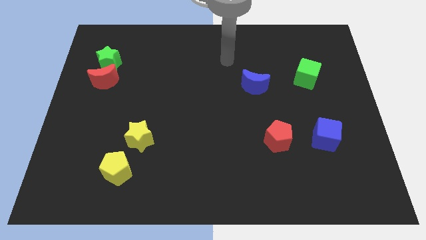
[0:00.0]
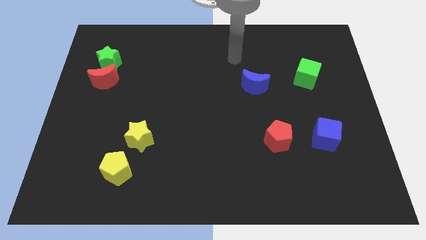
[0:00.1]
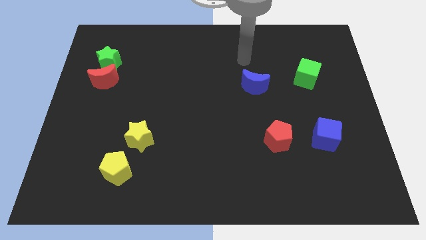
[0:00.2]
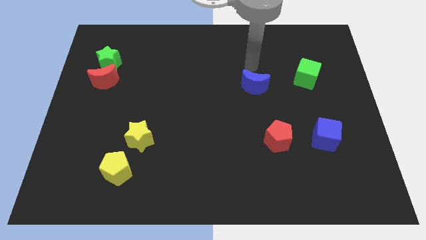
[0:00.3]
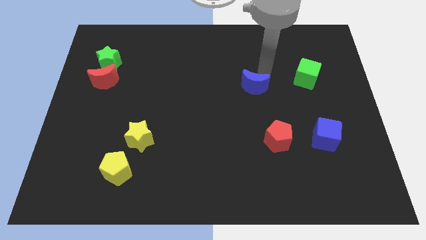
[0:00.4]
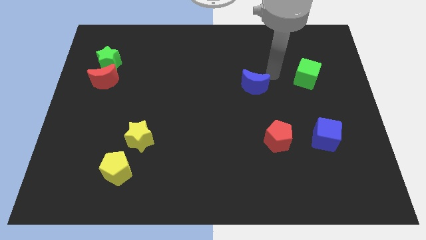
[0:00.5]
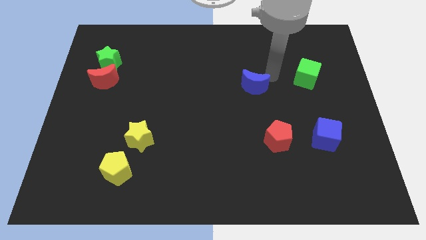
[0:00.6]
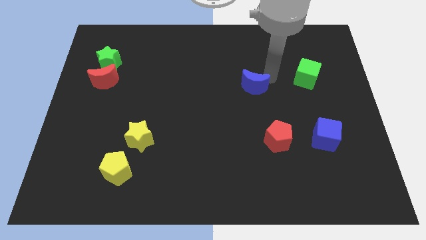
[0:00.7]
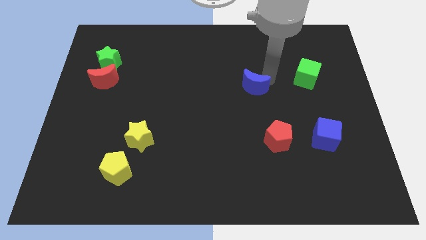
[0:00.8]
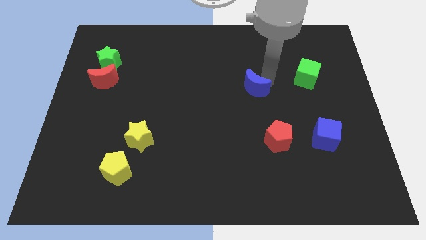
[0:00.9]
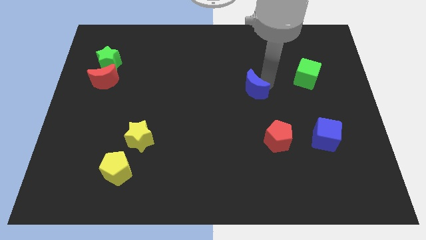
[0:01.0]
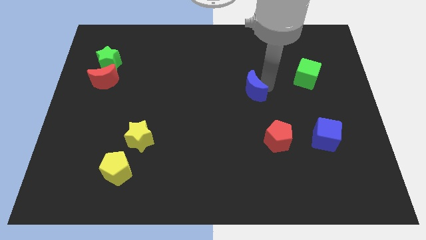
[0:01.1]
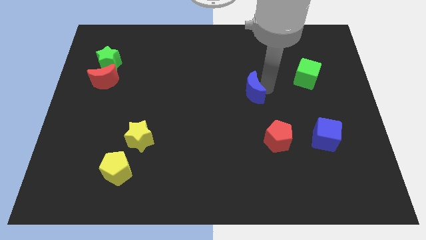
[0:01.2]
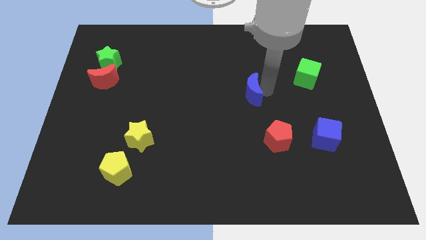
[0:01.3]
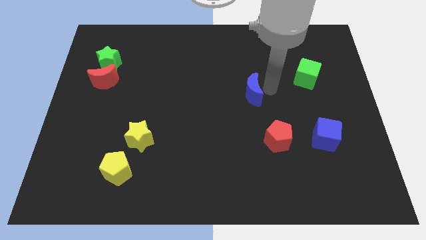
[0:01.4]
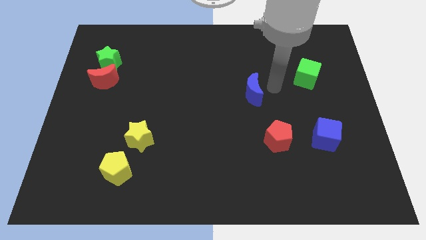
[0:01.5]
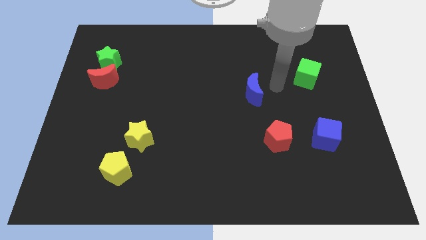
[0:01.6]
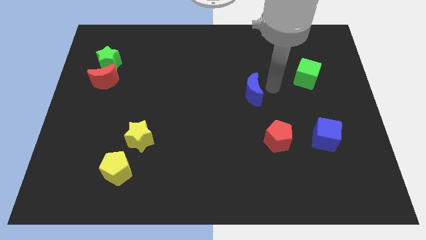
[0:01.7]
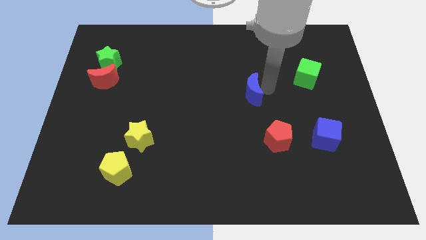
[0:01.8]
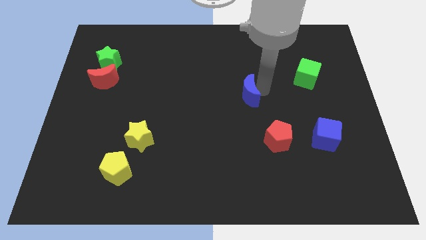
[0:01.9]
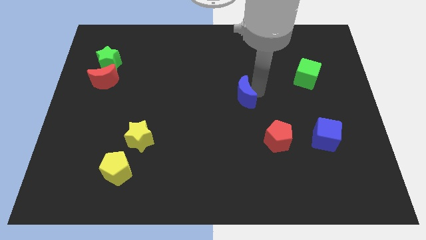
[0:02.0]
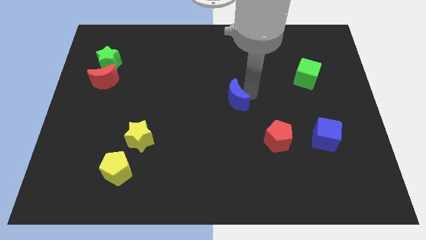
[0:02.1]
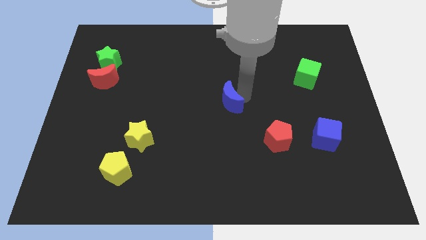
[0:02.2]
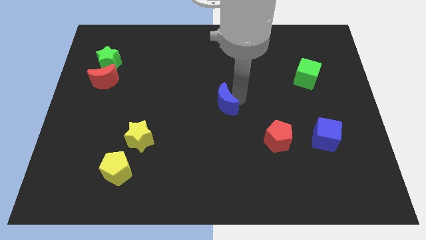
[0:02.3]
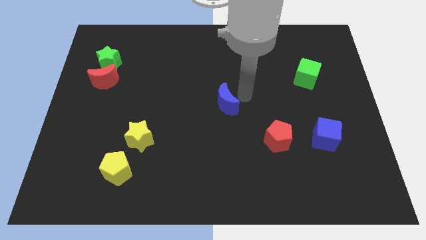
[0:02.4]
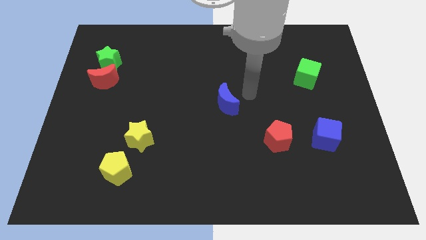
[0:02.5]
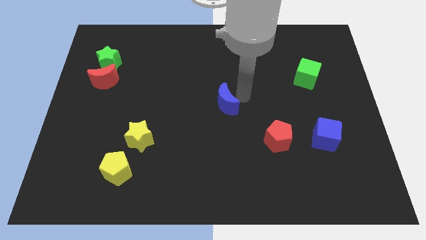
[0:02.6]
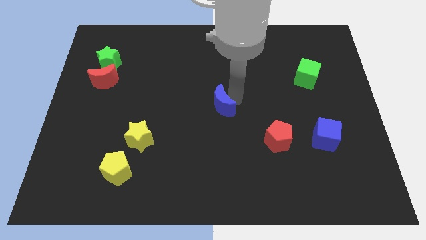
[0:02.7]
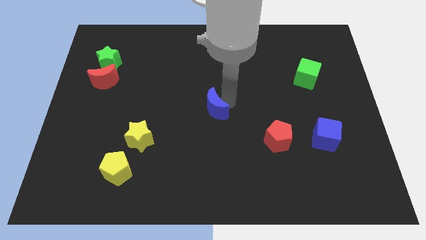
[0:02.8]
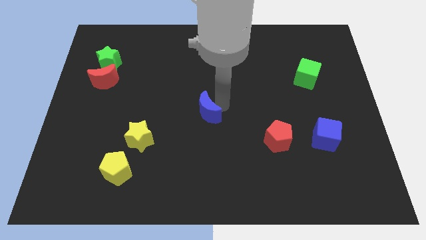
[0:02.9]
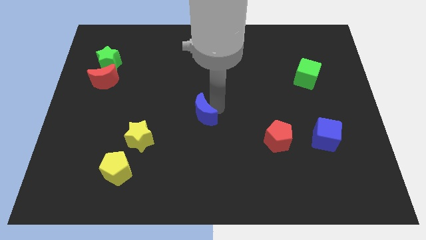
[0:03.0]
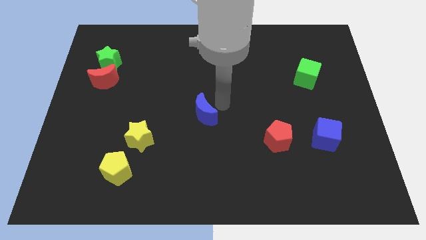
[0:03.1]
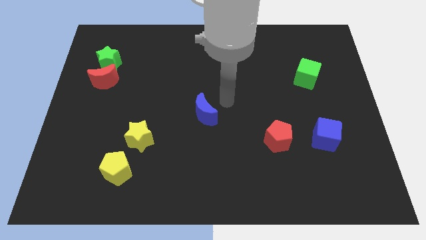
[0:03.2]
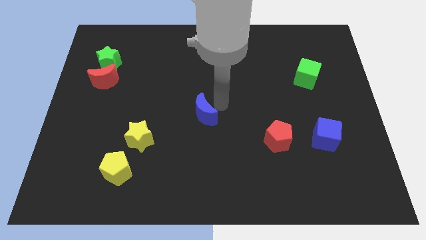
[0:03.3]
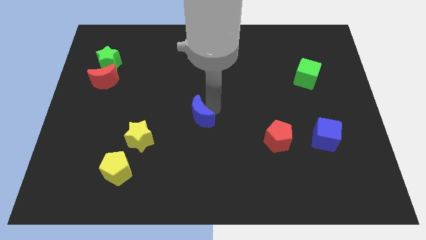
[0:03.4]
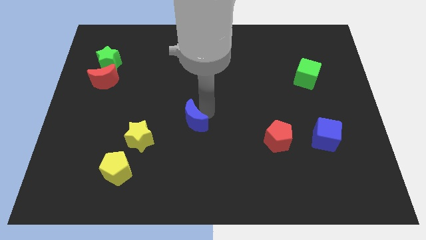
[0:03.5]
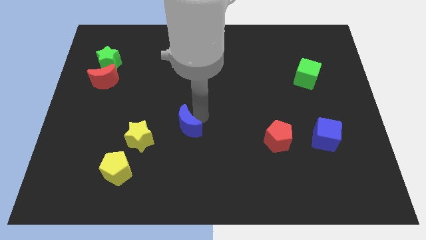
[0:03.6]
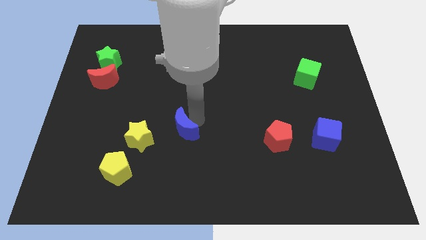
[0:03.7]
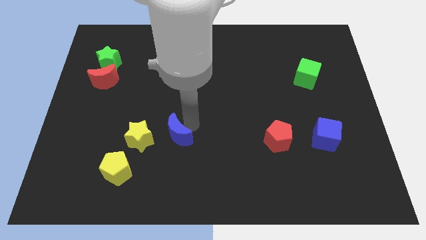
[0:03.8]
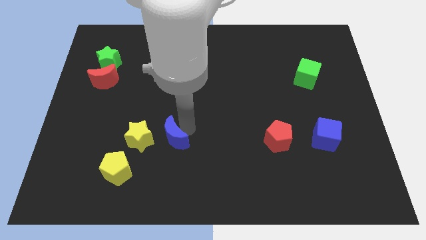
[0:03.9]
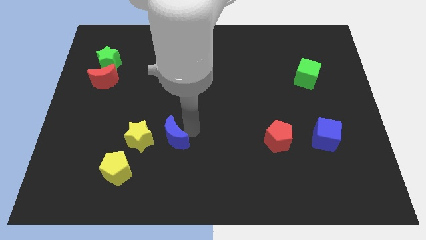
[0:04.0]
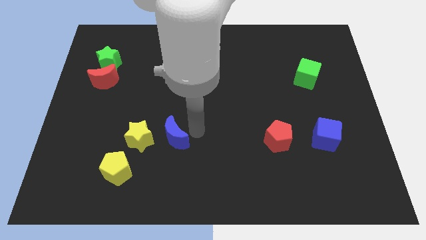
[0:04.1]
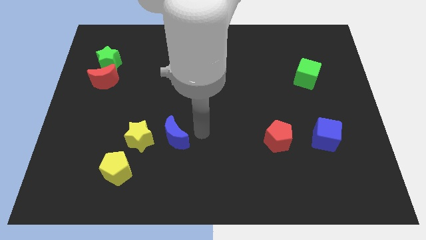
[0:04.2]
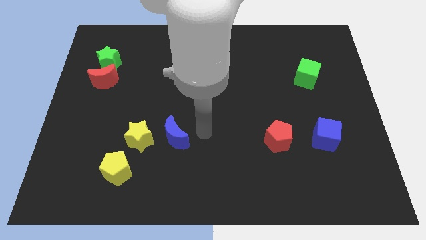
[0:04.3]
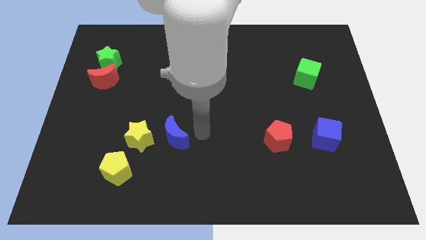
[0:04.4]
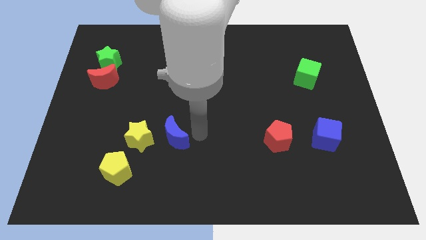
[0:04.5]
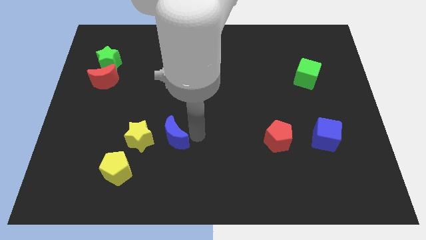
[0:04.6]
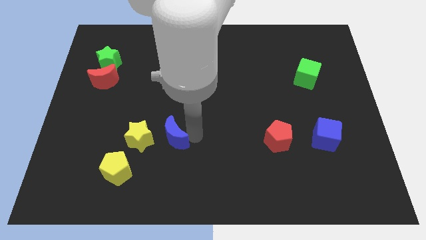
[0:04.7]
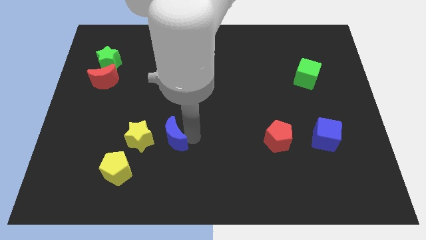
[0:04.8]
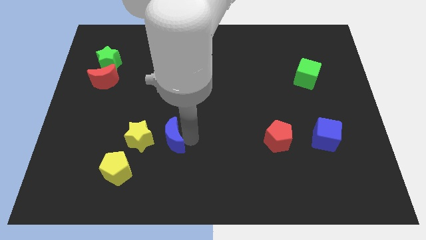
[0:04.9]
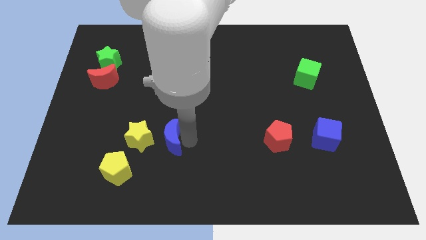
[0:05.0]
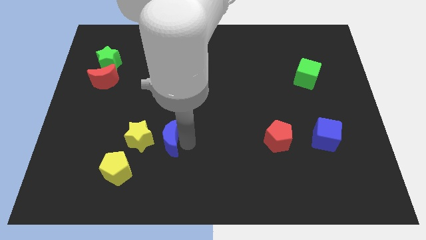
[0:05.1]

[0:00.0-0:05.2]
push the blue moon diagonally up and to the right of the yellow pentagon

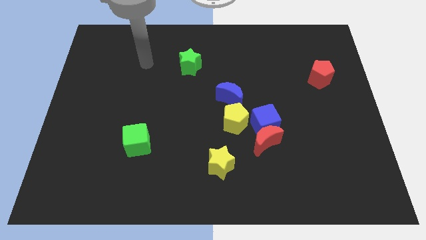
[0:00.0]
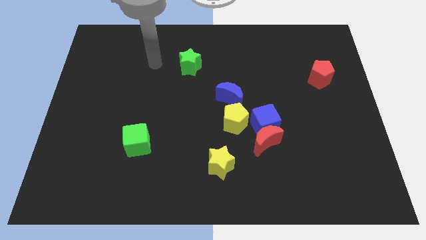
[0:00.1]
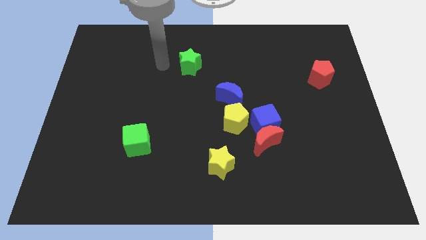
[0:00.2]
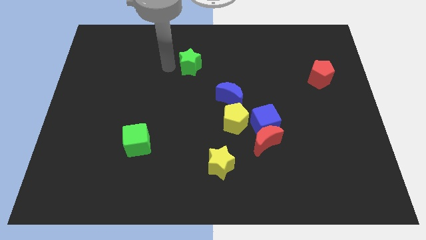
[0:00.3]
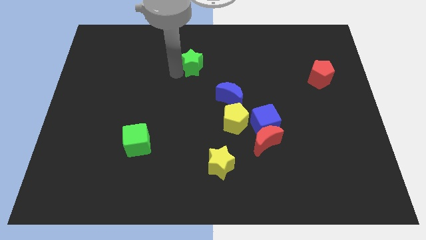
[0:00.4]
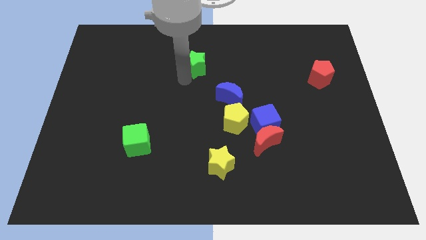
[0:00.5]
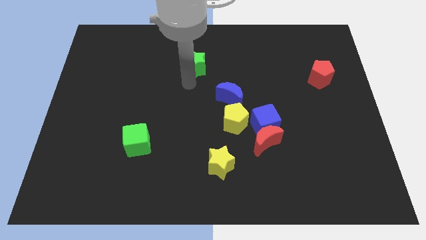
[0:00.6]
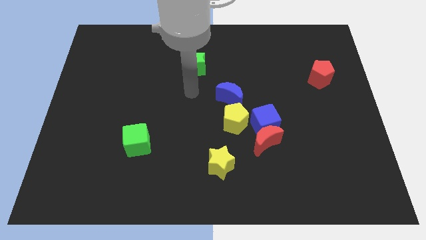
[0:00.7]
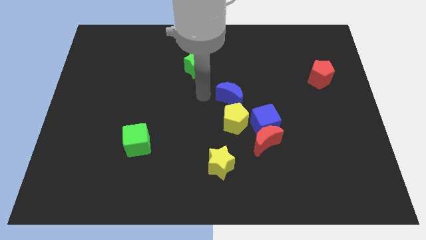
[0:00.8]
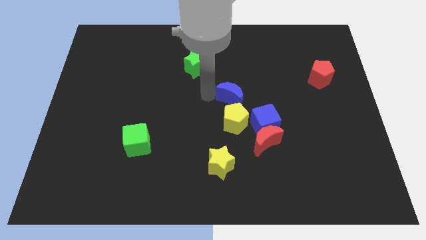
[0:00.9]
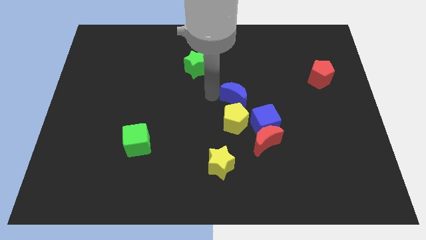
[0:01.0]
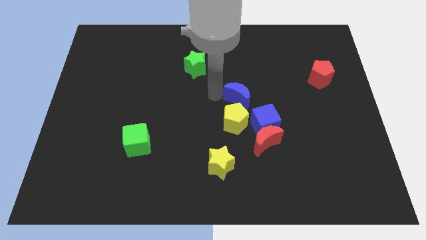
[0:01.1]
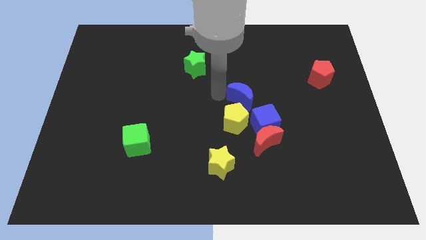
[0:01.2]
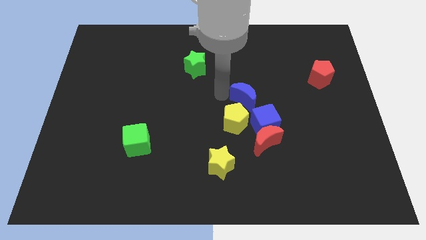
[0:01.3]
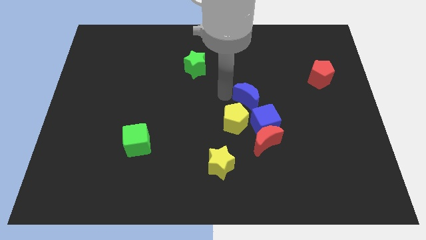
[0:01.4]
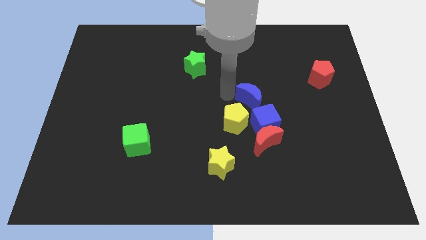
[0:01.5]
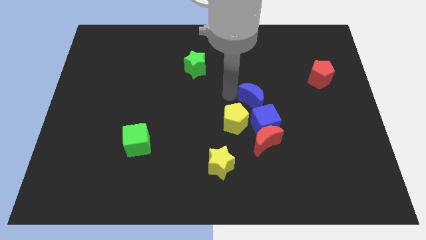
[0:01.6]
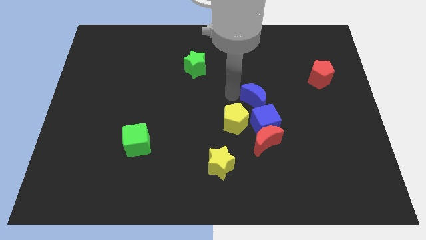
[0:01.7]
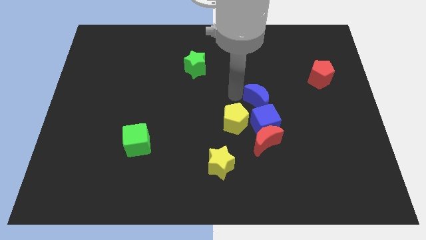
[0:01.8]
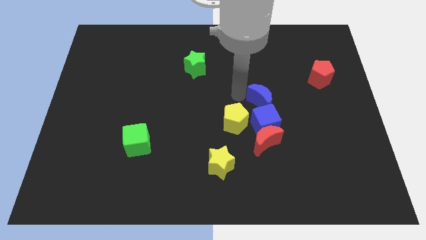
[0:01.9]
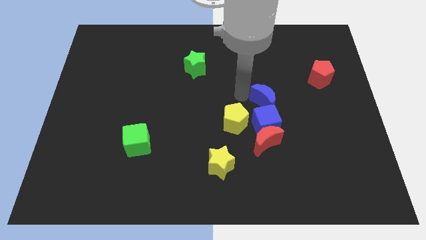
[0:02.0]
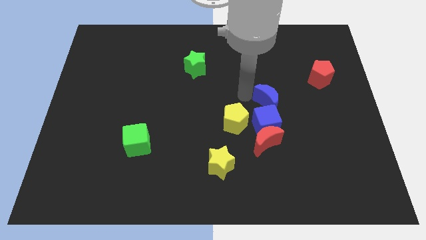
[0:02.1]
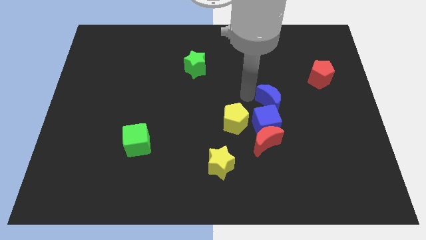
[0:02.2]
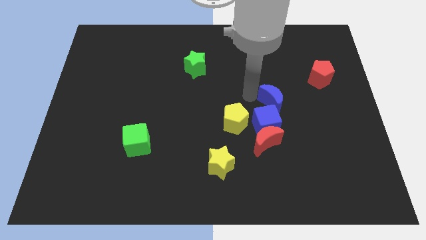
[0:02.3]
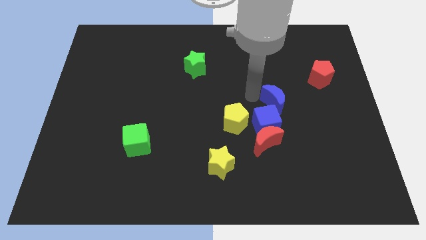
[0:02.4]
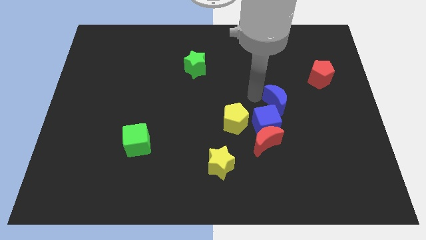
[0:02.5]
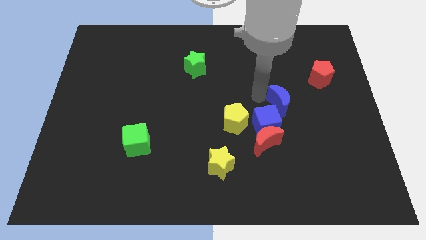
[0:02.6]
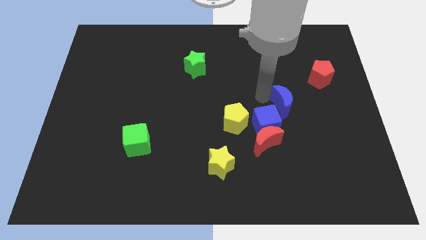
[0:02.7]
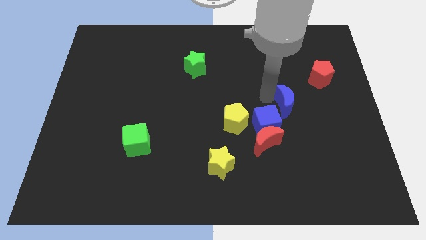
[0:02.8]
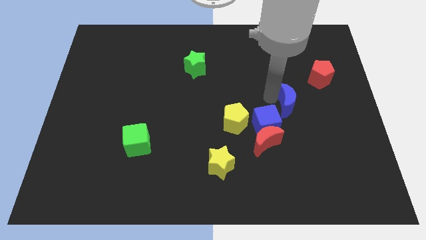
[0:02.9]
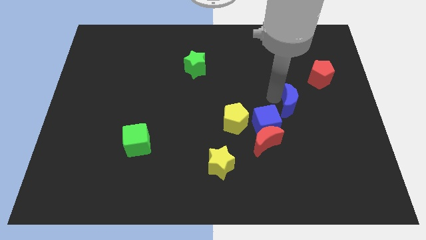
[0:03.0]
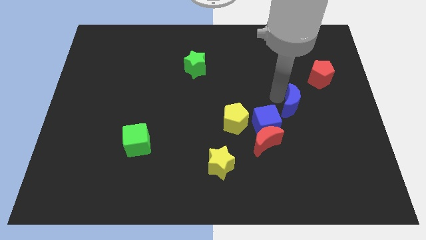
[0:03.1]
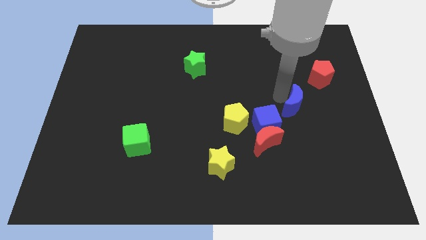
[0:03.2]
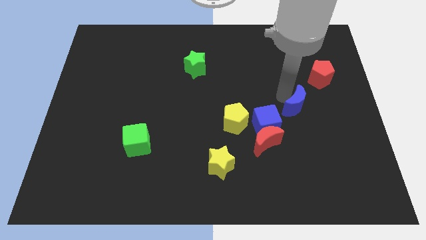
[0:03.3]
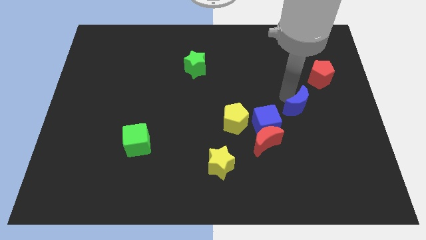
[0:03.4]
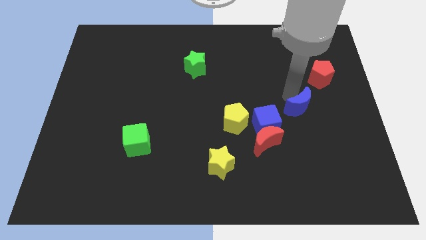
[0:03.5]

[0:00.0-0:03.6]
slide the blue moon to the right side of the blue cube
